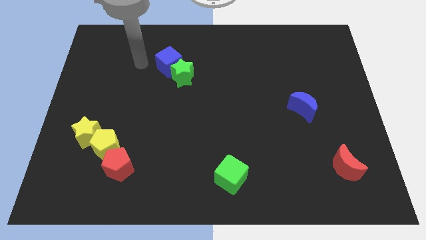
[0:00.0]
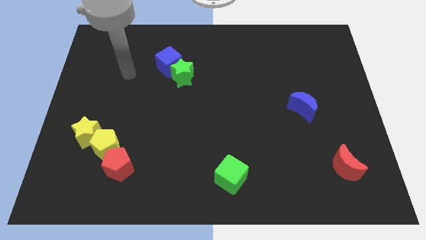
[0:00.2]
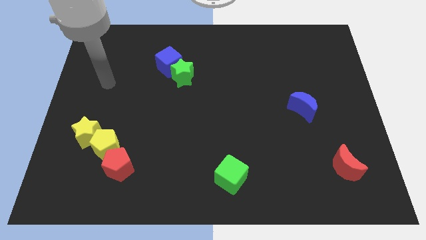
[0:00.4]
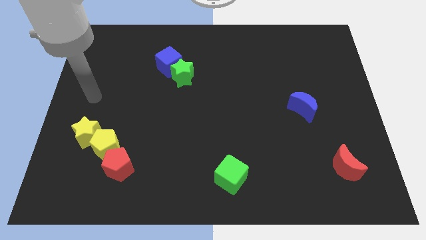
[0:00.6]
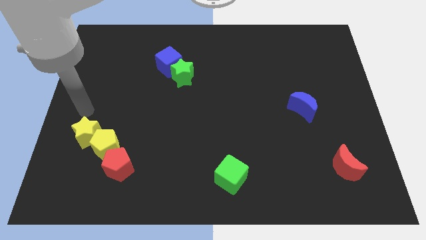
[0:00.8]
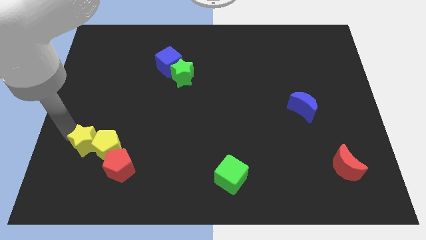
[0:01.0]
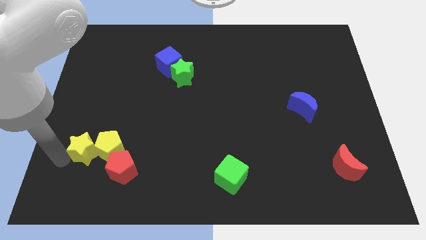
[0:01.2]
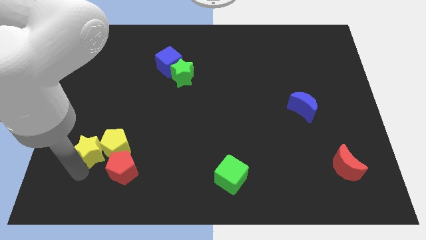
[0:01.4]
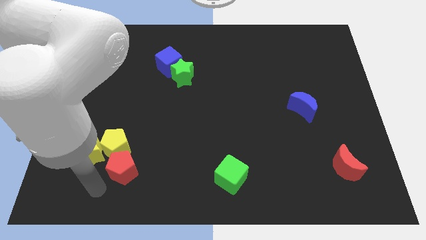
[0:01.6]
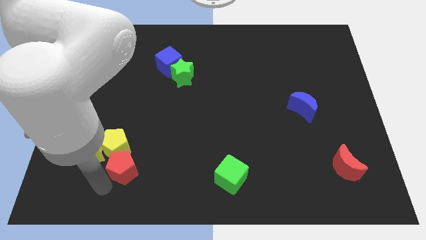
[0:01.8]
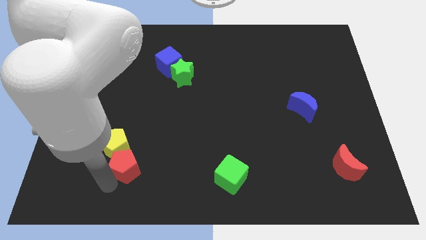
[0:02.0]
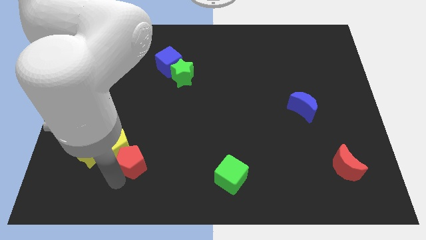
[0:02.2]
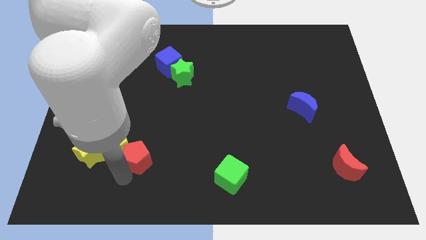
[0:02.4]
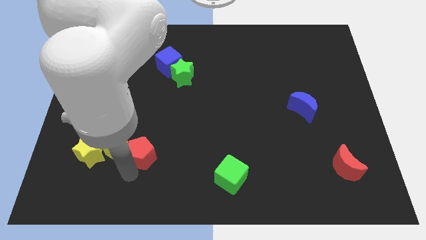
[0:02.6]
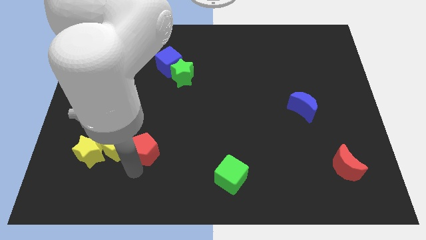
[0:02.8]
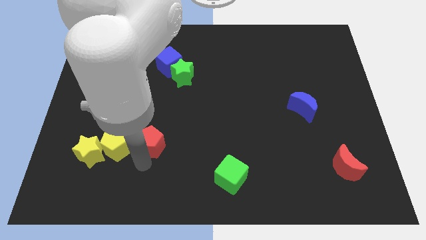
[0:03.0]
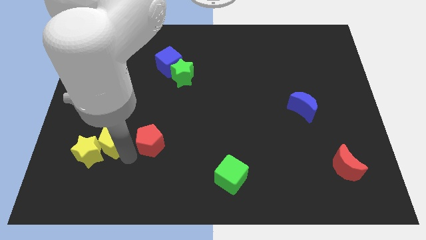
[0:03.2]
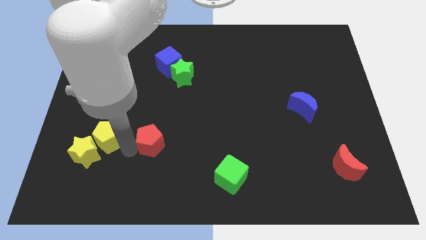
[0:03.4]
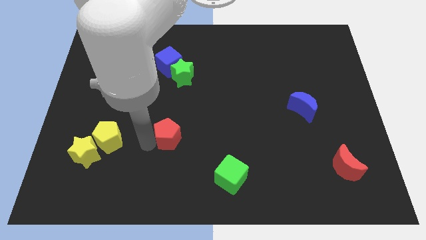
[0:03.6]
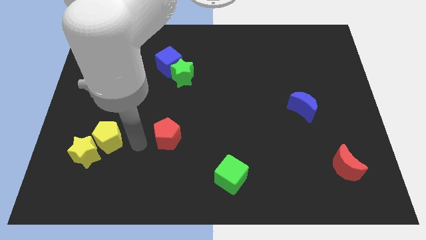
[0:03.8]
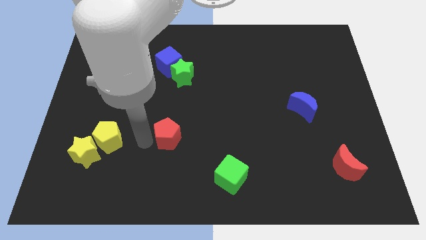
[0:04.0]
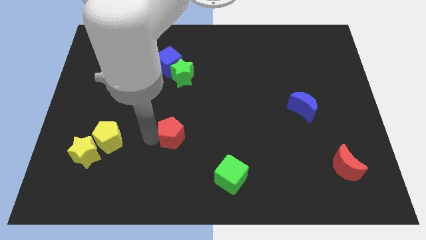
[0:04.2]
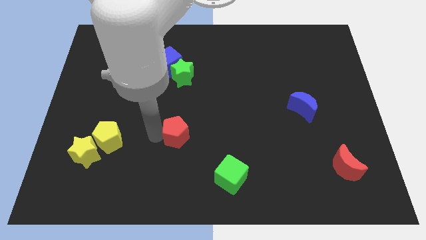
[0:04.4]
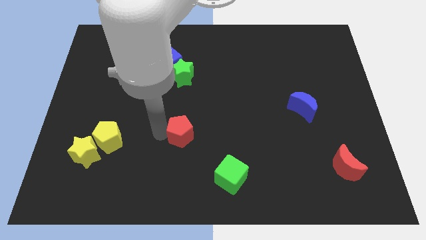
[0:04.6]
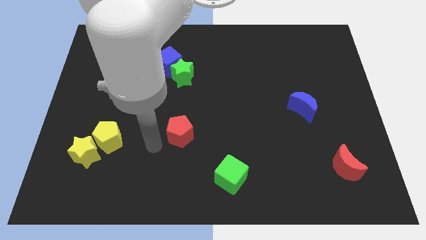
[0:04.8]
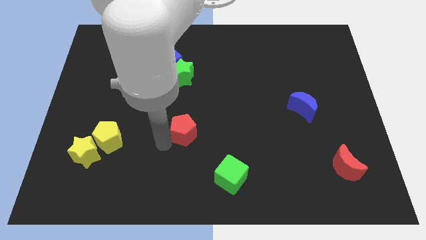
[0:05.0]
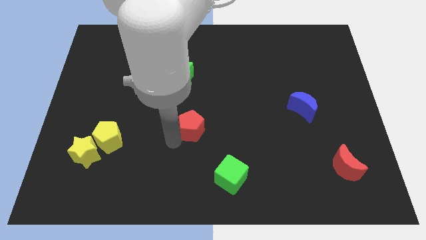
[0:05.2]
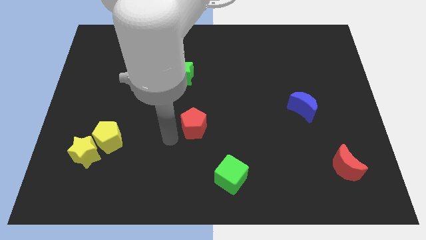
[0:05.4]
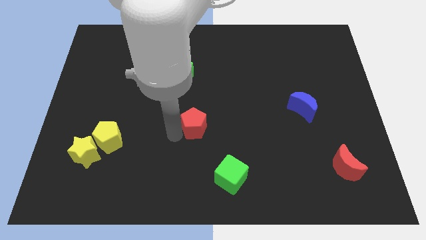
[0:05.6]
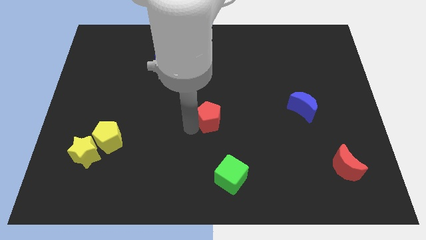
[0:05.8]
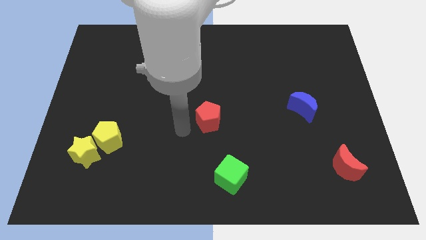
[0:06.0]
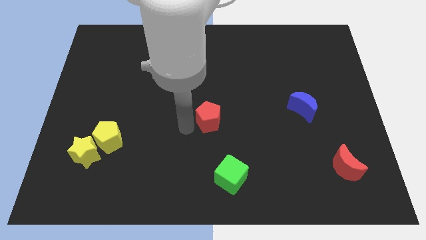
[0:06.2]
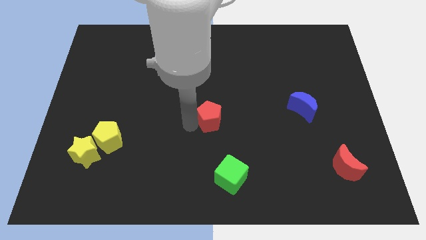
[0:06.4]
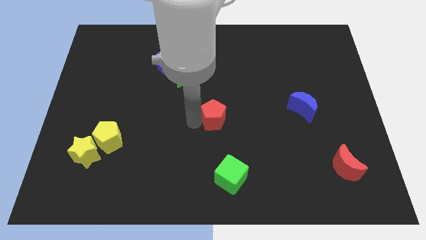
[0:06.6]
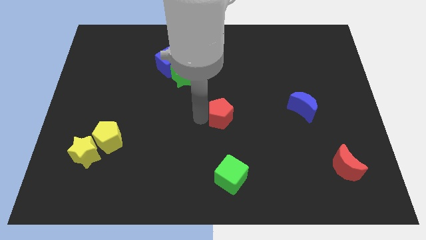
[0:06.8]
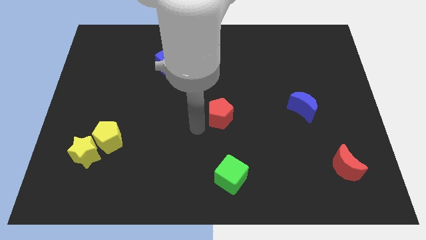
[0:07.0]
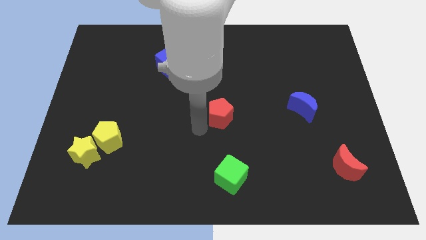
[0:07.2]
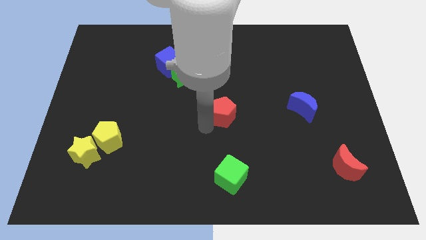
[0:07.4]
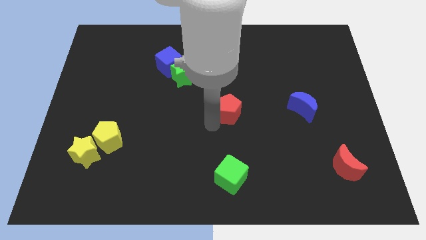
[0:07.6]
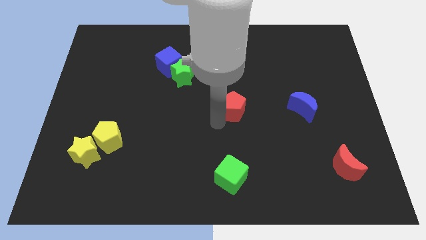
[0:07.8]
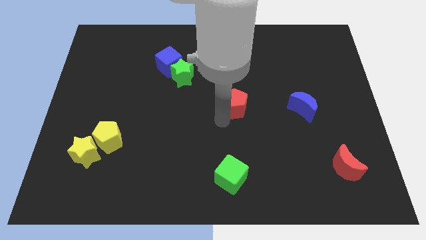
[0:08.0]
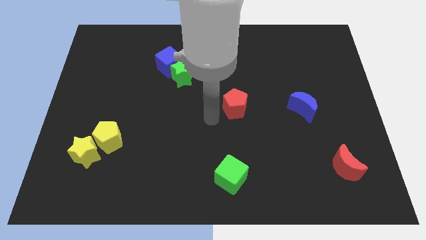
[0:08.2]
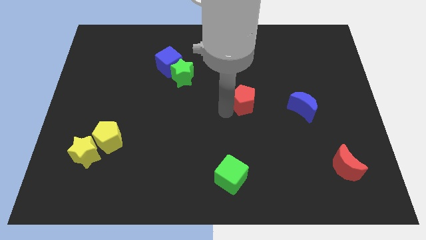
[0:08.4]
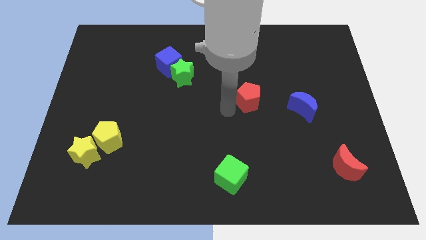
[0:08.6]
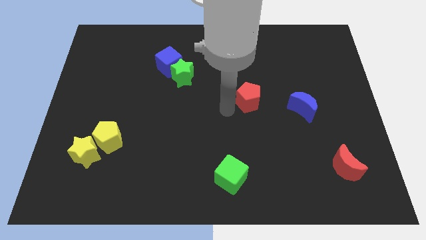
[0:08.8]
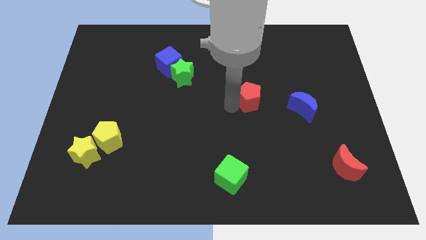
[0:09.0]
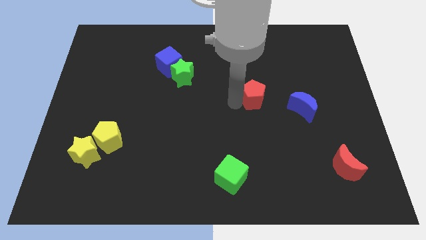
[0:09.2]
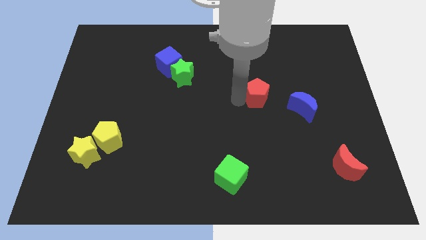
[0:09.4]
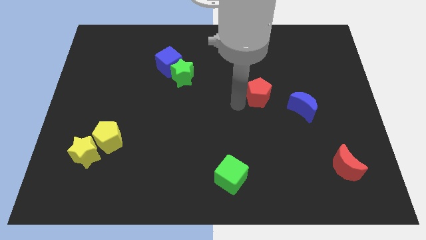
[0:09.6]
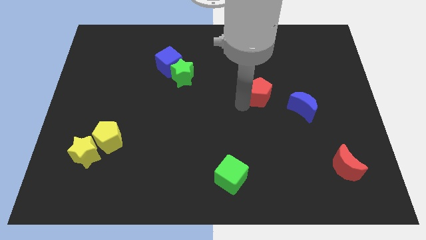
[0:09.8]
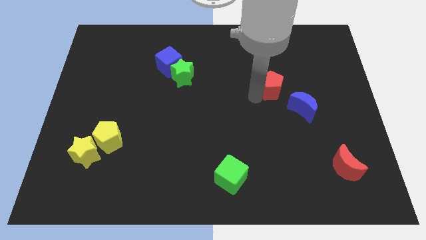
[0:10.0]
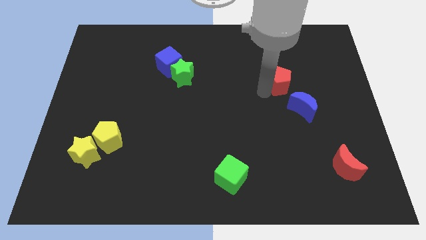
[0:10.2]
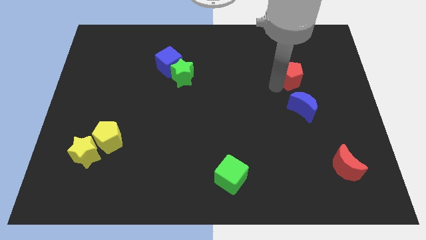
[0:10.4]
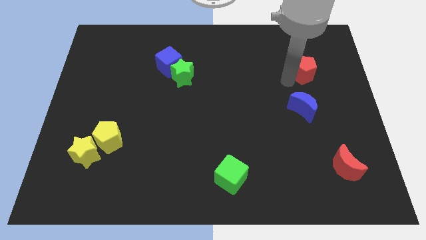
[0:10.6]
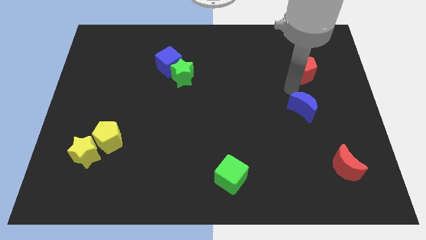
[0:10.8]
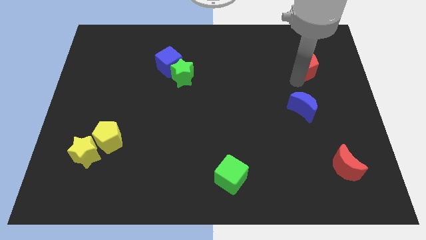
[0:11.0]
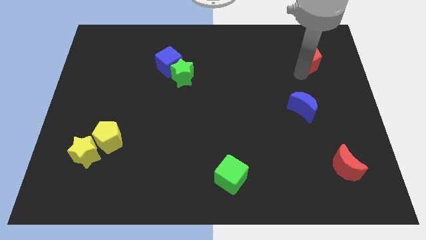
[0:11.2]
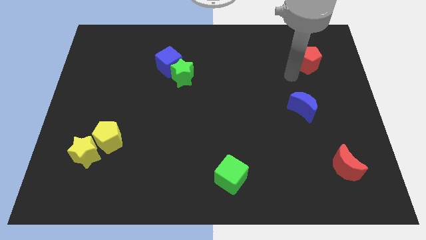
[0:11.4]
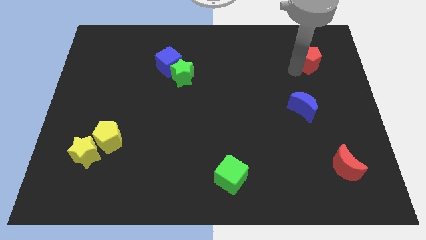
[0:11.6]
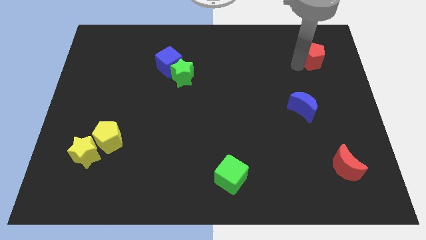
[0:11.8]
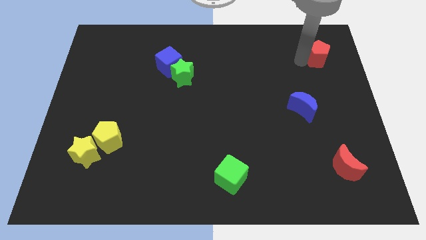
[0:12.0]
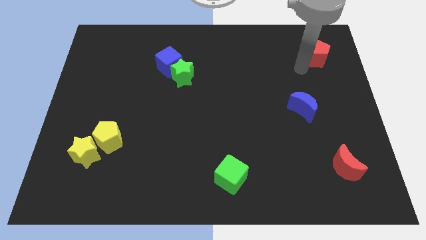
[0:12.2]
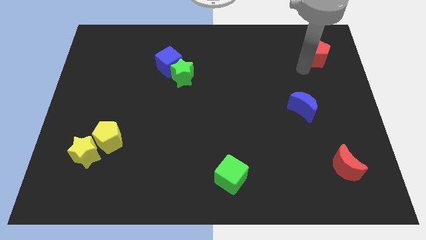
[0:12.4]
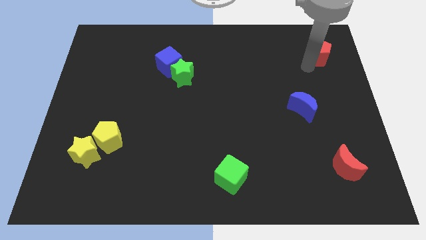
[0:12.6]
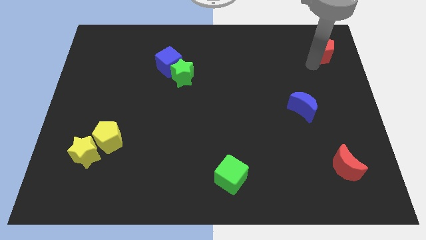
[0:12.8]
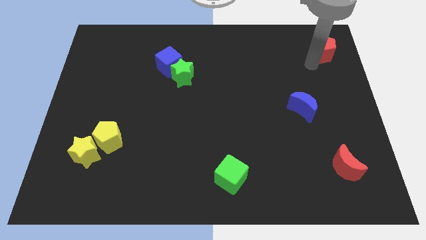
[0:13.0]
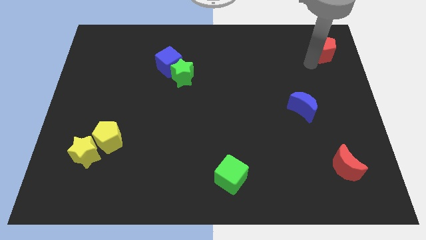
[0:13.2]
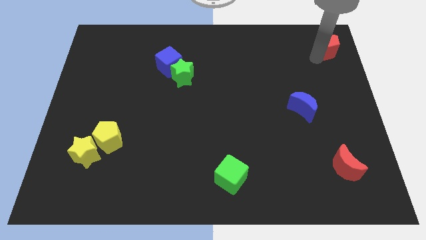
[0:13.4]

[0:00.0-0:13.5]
push the red pentagon to the top right corner
